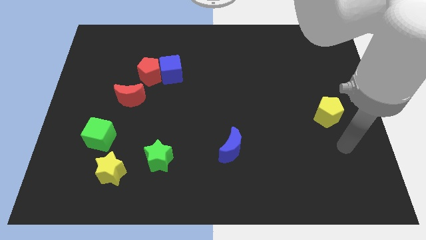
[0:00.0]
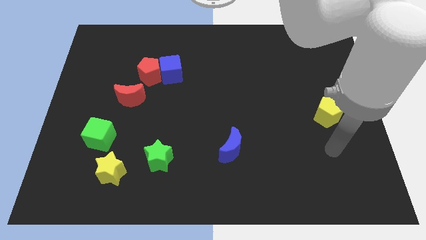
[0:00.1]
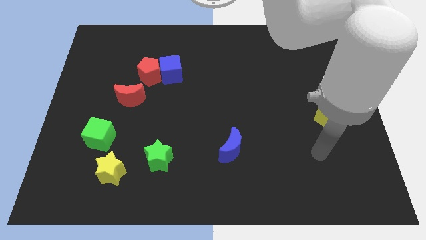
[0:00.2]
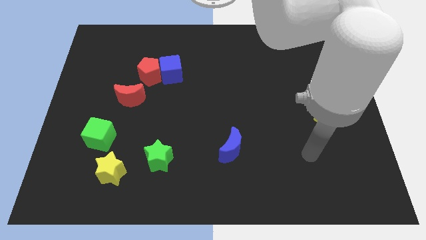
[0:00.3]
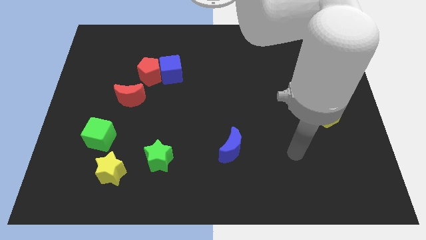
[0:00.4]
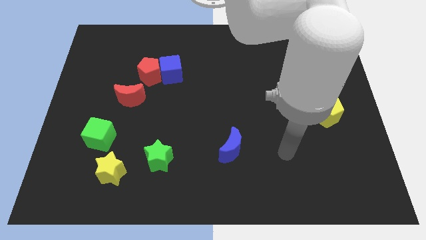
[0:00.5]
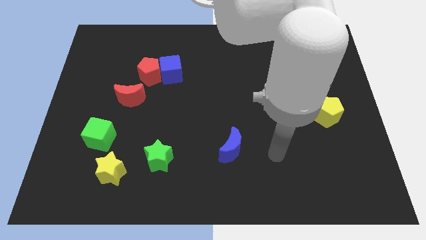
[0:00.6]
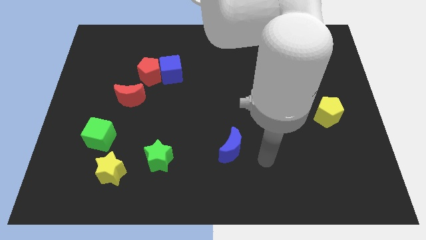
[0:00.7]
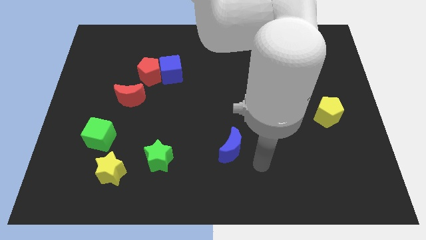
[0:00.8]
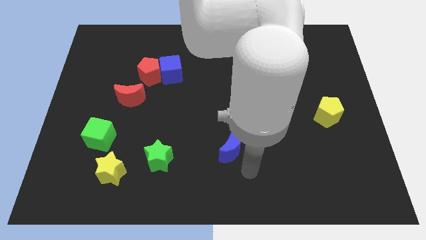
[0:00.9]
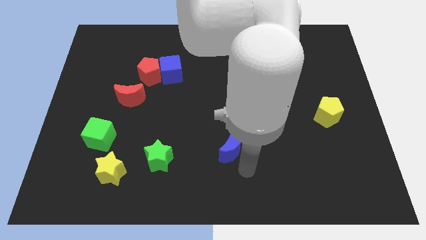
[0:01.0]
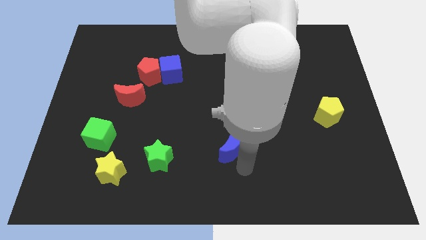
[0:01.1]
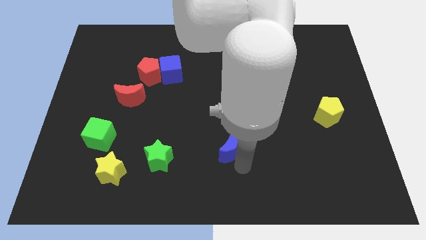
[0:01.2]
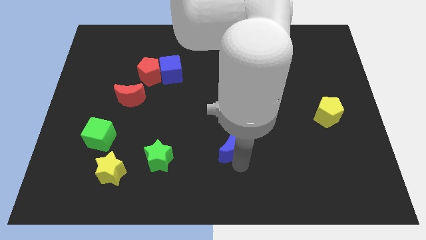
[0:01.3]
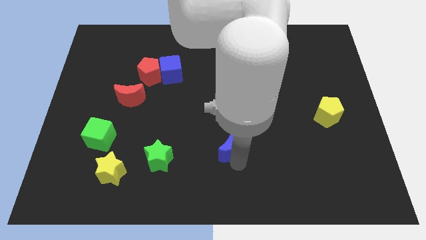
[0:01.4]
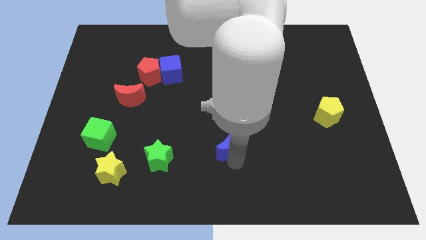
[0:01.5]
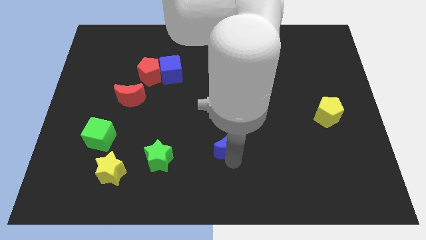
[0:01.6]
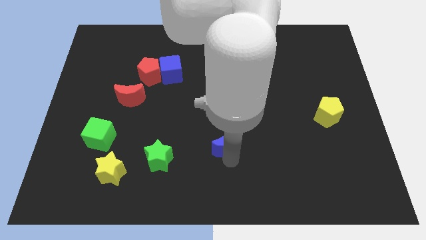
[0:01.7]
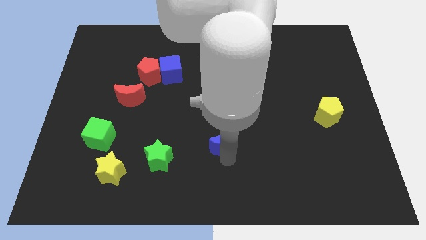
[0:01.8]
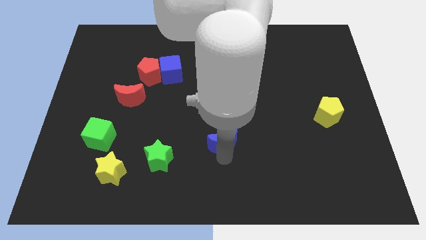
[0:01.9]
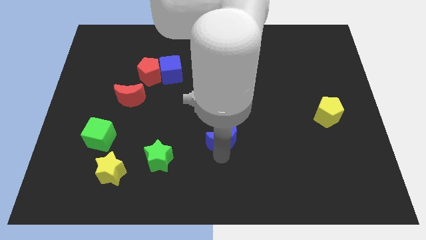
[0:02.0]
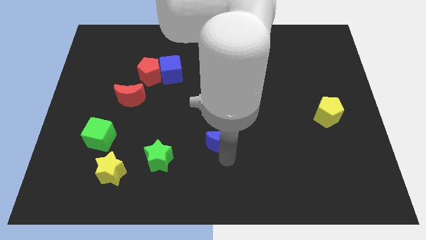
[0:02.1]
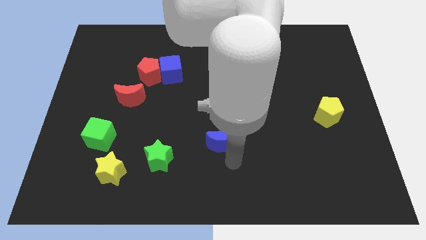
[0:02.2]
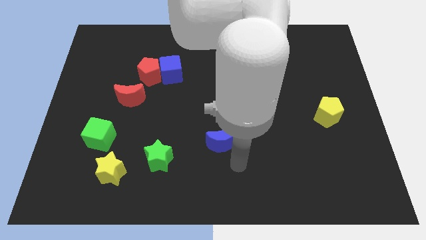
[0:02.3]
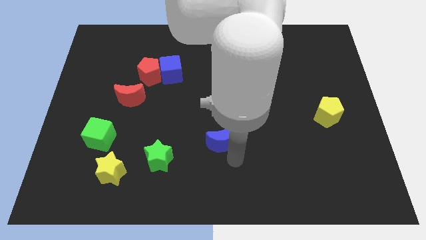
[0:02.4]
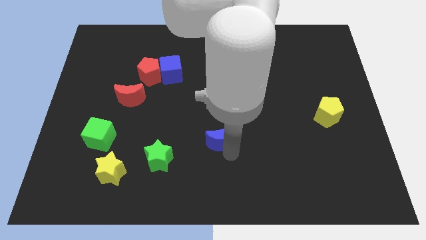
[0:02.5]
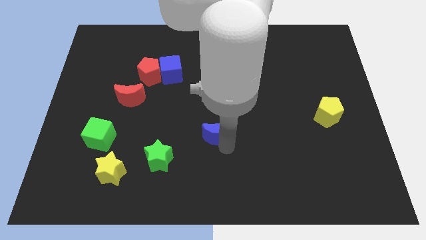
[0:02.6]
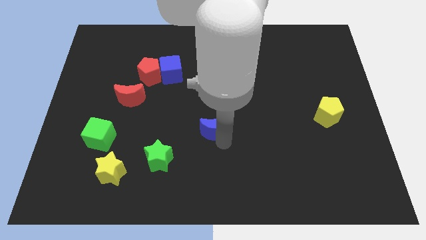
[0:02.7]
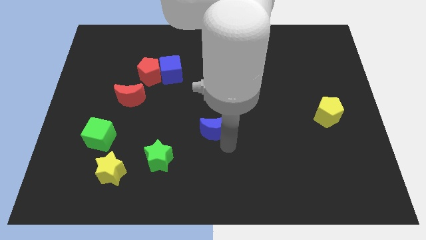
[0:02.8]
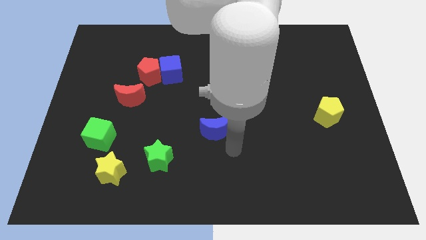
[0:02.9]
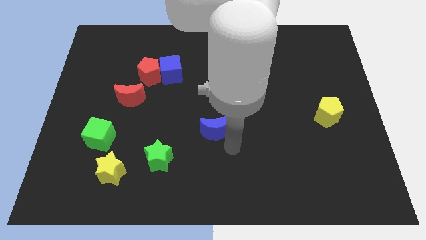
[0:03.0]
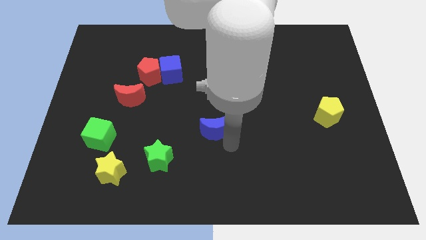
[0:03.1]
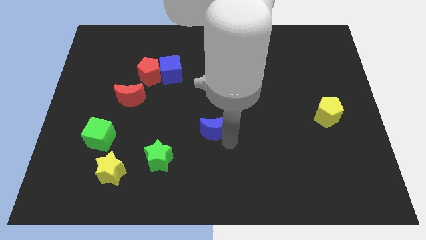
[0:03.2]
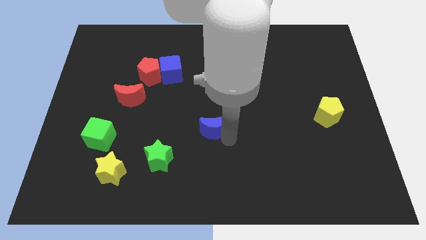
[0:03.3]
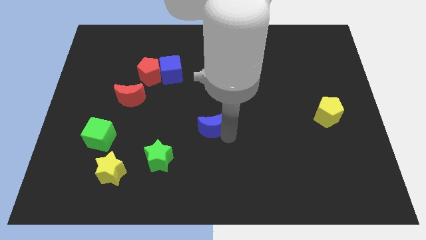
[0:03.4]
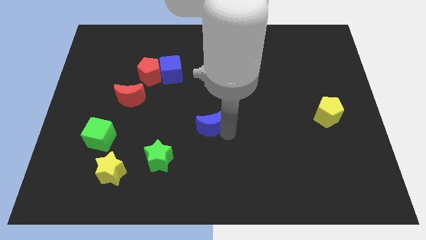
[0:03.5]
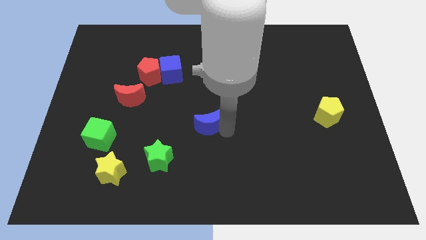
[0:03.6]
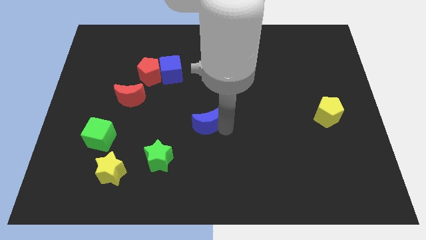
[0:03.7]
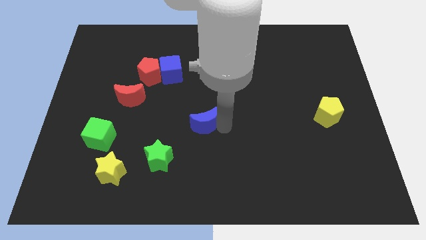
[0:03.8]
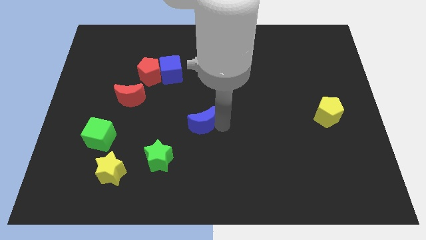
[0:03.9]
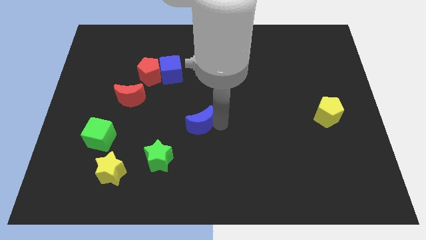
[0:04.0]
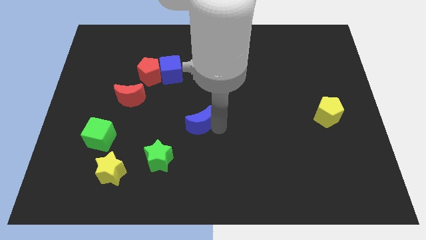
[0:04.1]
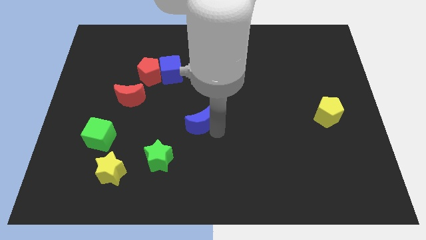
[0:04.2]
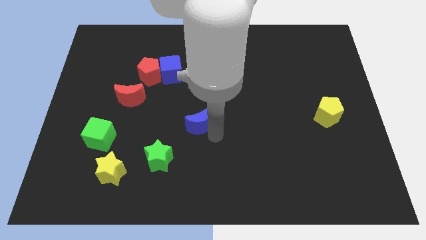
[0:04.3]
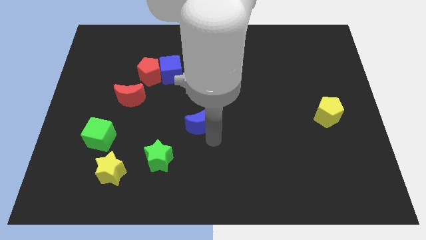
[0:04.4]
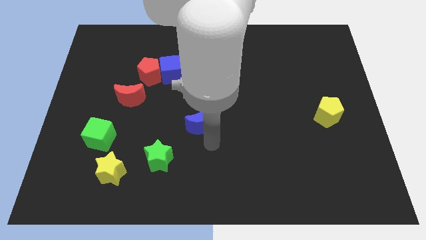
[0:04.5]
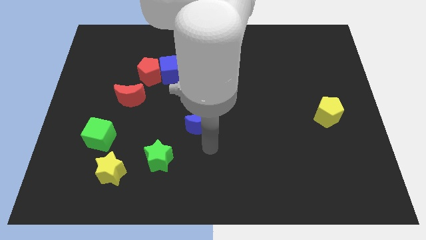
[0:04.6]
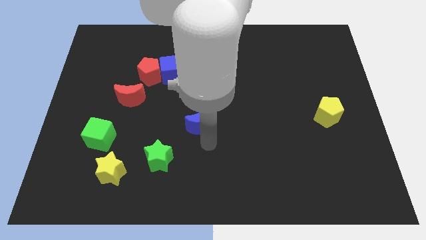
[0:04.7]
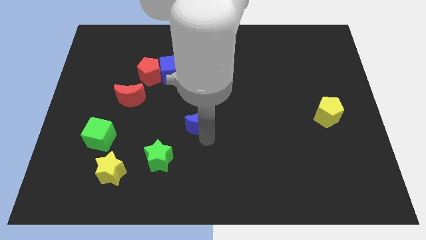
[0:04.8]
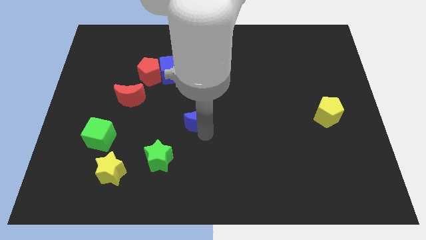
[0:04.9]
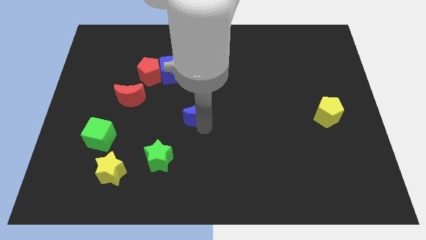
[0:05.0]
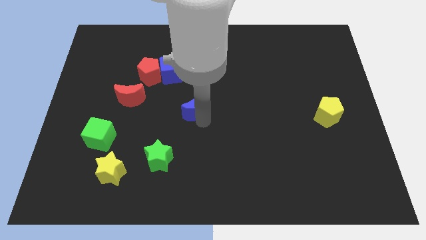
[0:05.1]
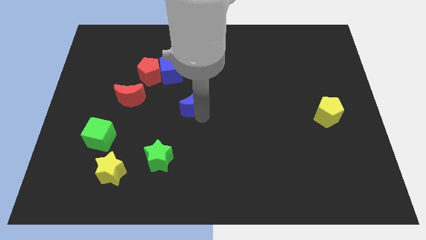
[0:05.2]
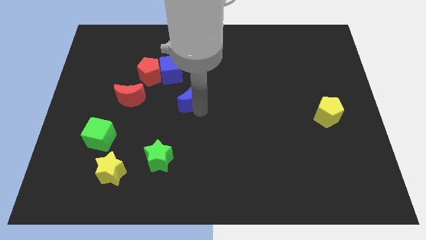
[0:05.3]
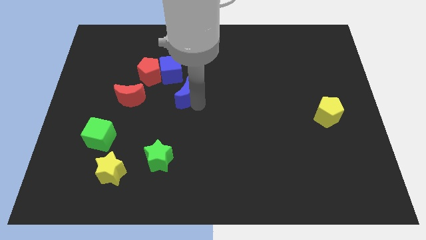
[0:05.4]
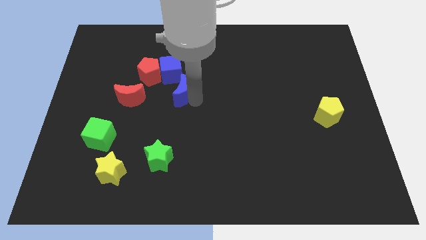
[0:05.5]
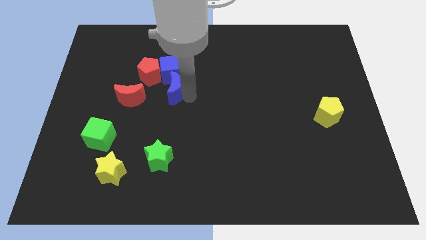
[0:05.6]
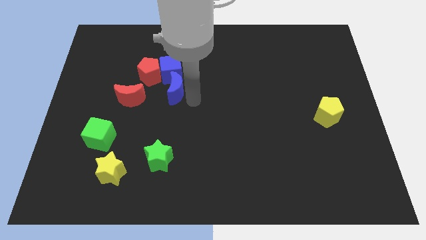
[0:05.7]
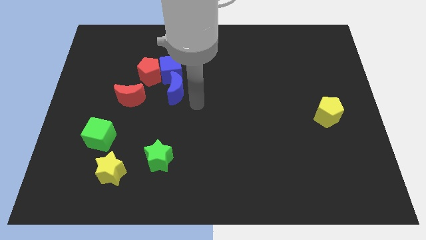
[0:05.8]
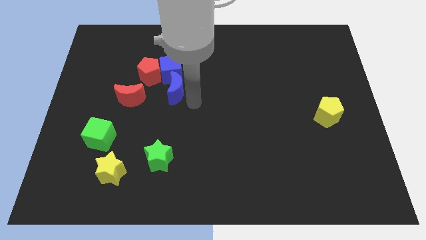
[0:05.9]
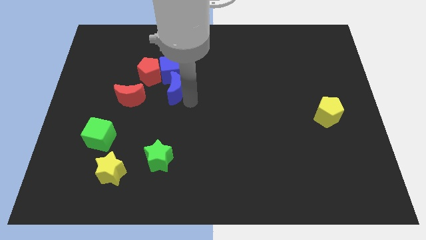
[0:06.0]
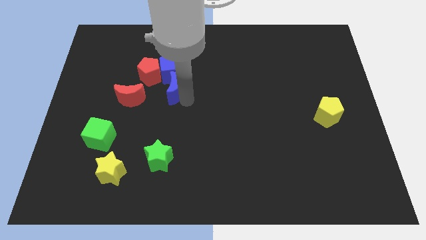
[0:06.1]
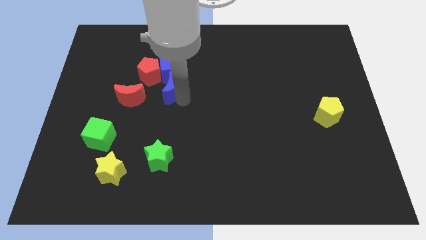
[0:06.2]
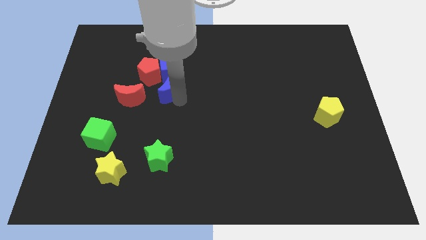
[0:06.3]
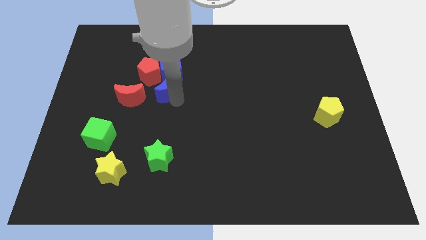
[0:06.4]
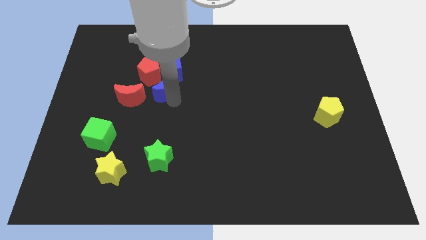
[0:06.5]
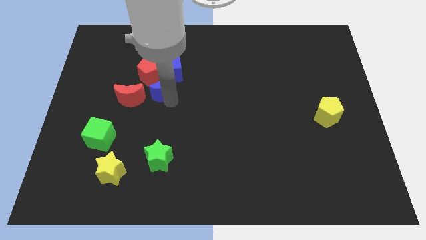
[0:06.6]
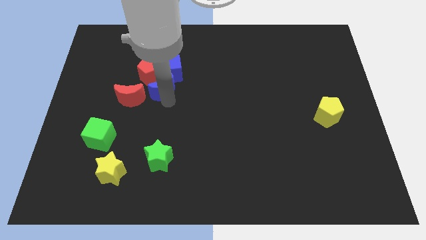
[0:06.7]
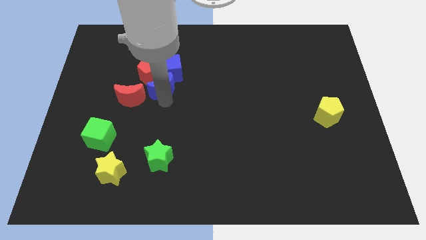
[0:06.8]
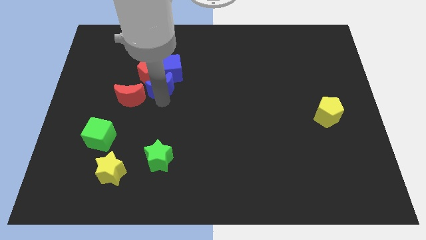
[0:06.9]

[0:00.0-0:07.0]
put the blue moon close to the red pentagon

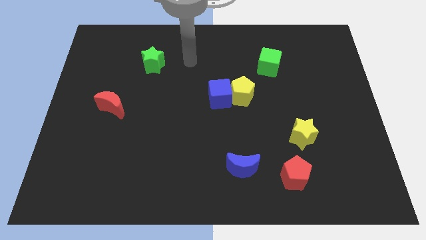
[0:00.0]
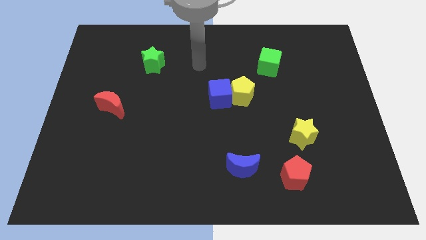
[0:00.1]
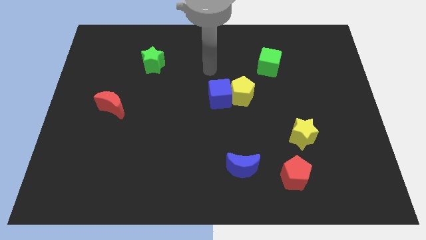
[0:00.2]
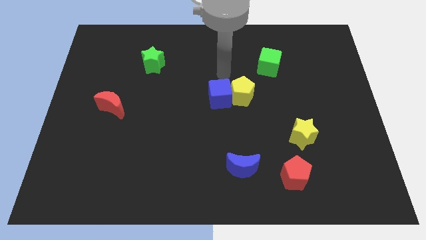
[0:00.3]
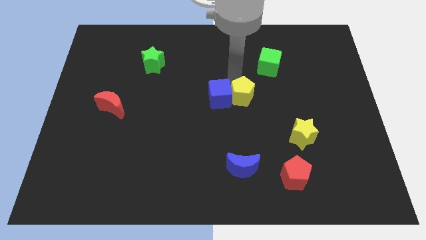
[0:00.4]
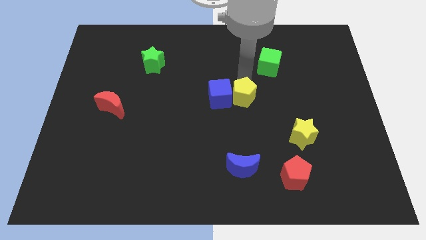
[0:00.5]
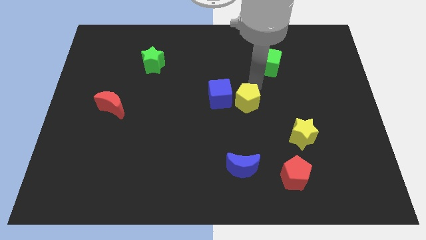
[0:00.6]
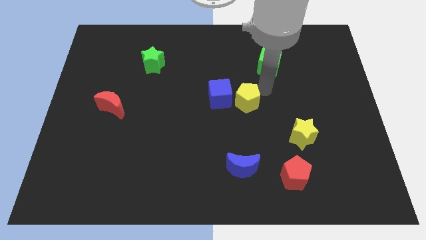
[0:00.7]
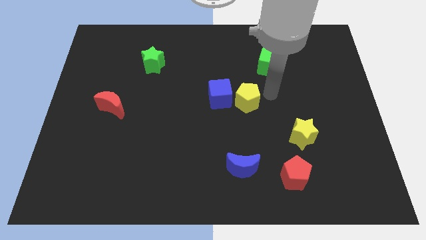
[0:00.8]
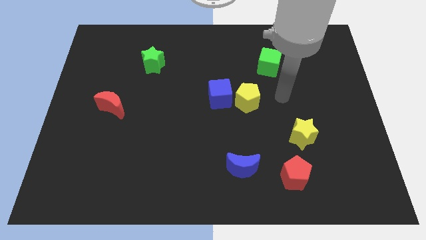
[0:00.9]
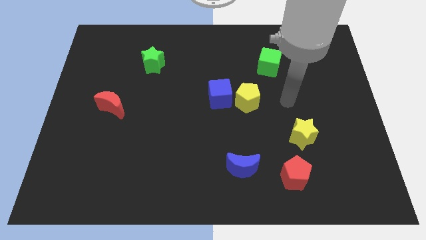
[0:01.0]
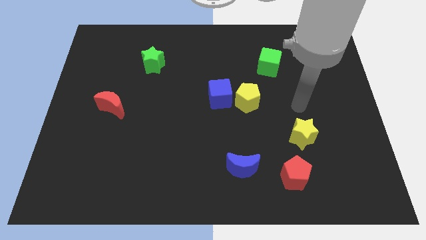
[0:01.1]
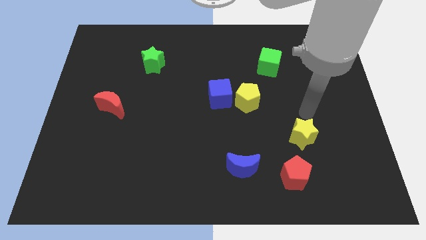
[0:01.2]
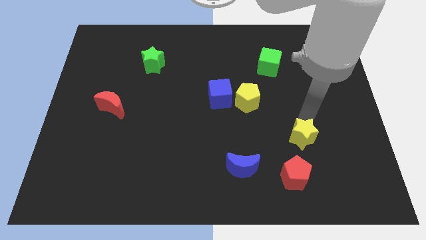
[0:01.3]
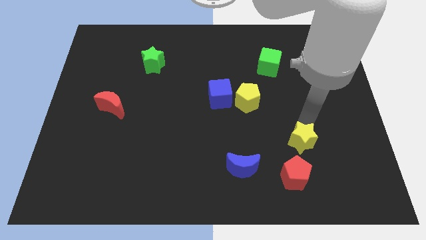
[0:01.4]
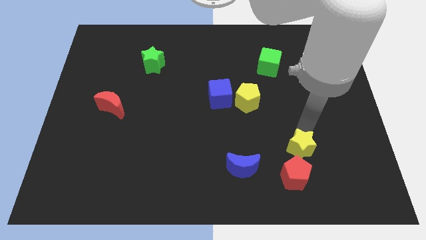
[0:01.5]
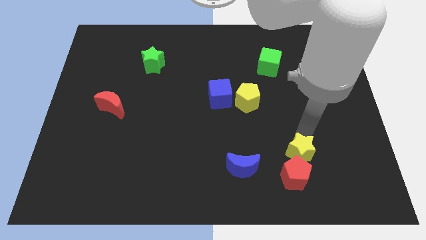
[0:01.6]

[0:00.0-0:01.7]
move the yellow star close to the red pentagon
